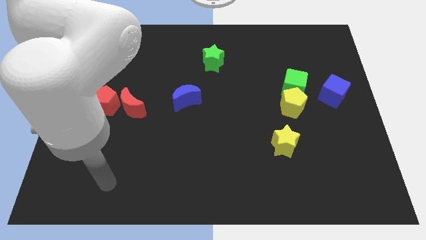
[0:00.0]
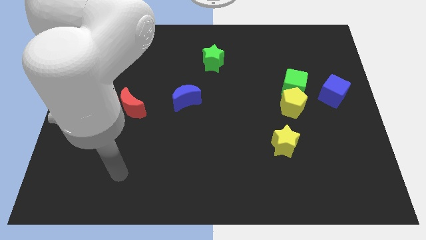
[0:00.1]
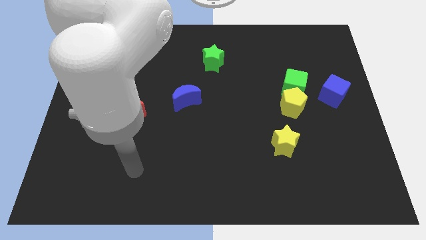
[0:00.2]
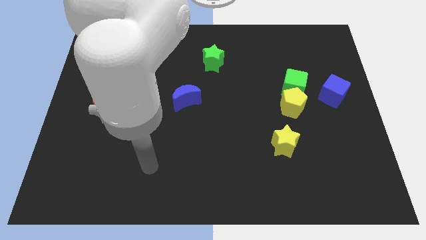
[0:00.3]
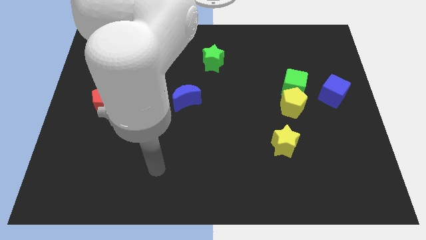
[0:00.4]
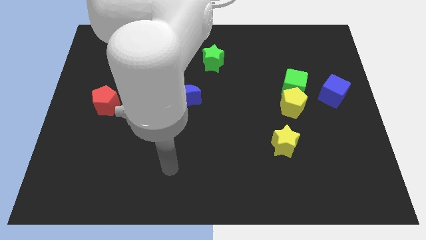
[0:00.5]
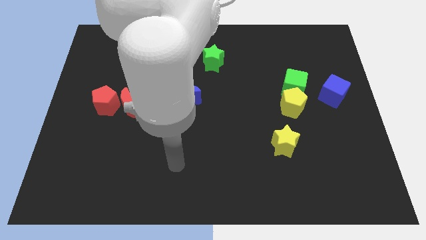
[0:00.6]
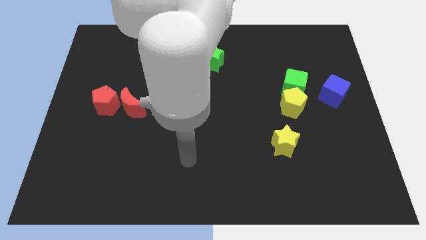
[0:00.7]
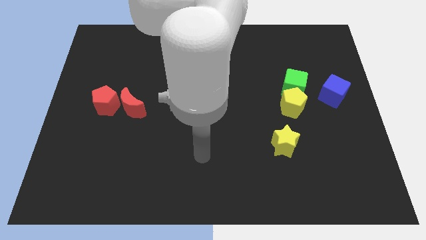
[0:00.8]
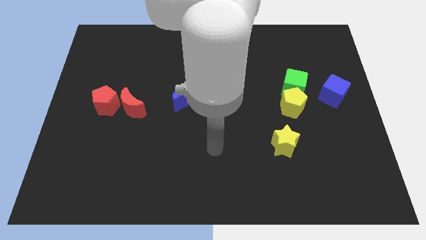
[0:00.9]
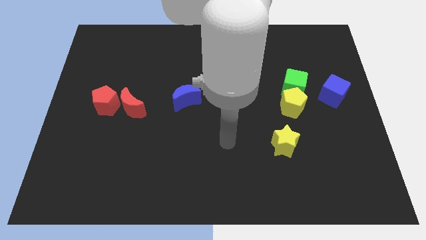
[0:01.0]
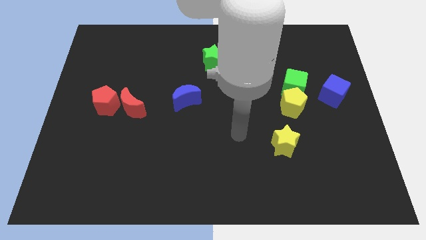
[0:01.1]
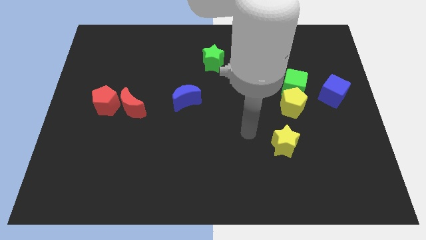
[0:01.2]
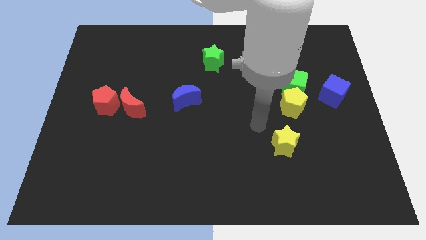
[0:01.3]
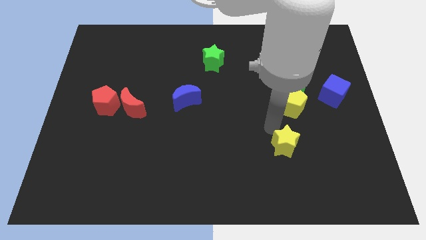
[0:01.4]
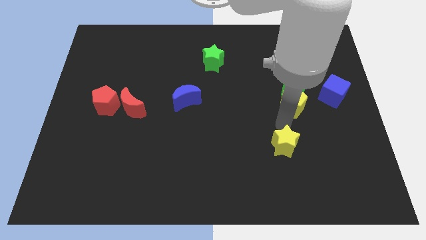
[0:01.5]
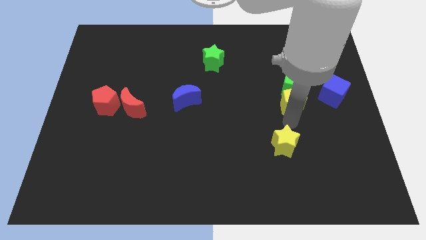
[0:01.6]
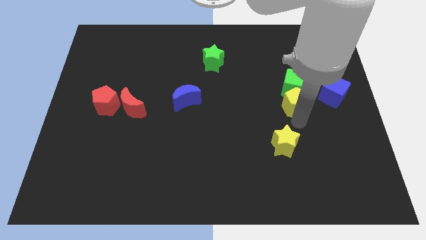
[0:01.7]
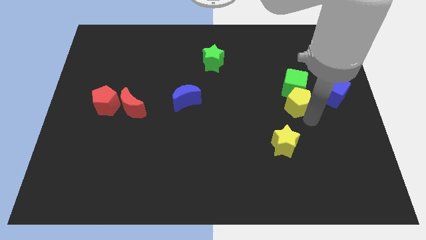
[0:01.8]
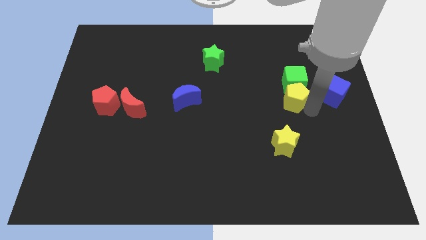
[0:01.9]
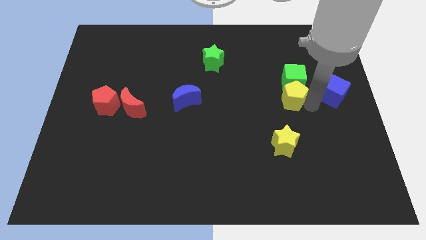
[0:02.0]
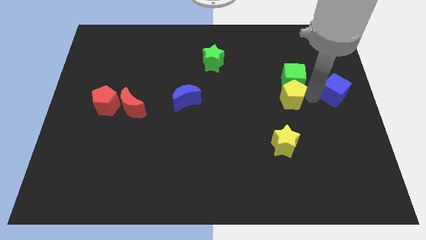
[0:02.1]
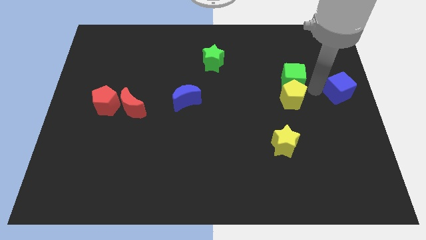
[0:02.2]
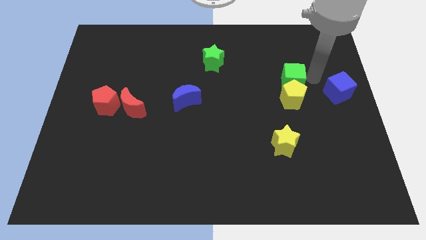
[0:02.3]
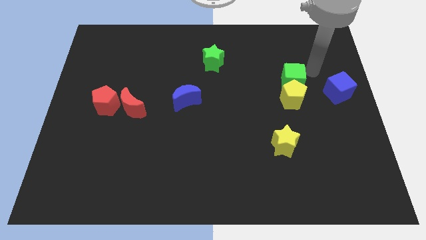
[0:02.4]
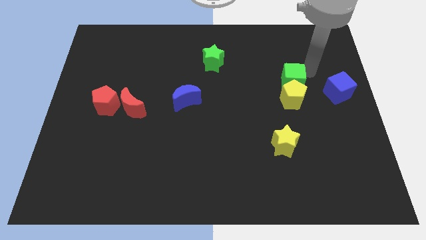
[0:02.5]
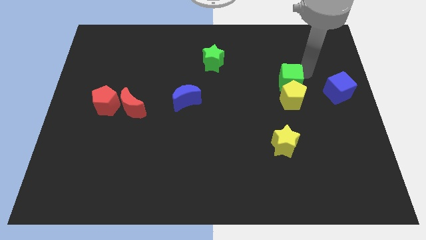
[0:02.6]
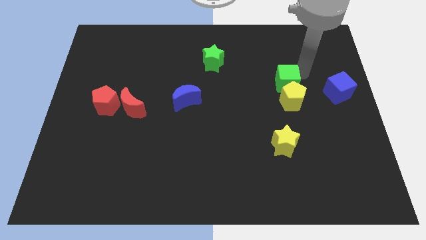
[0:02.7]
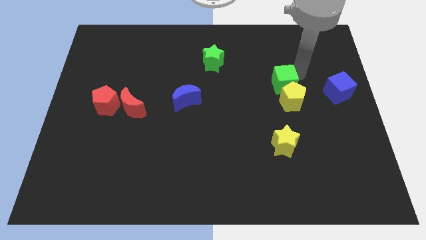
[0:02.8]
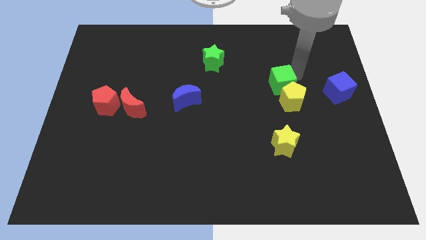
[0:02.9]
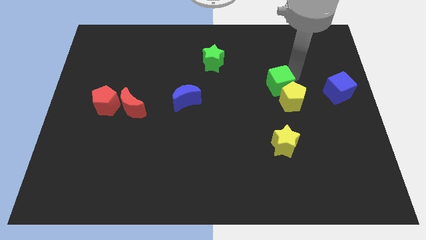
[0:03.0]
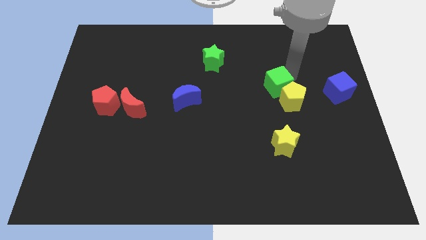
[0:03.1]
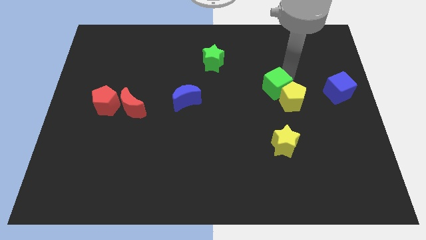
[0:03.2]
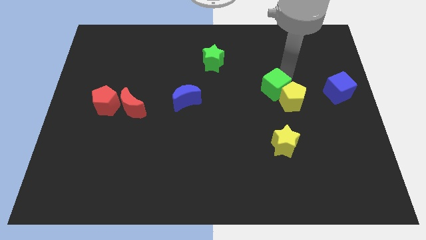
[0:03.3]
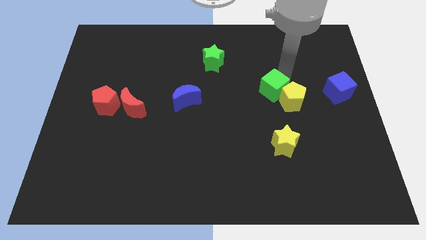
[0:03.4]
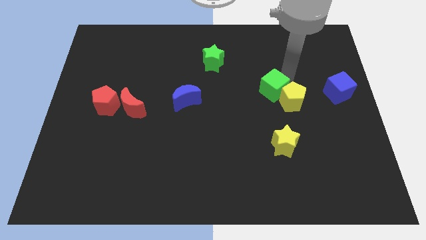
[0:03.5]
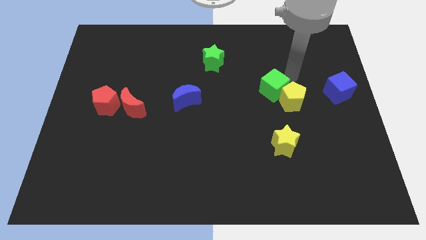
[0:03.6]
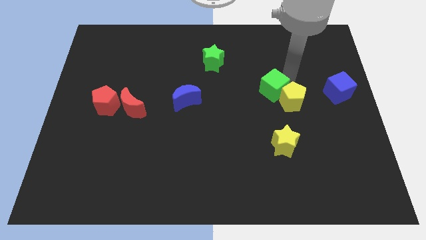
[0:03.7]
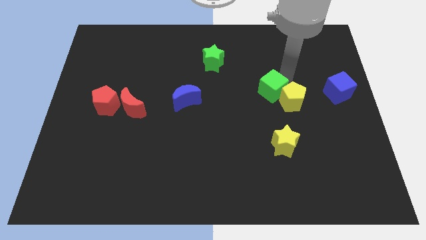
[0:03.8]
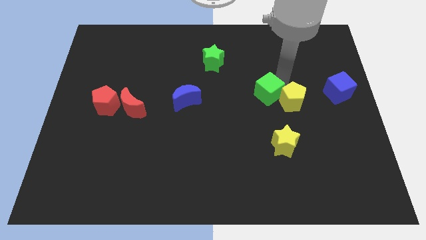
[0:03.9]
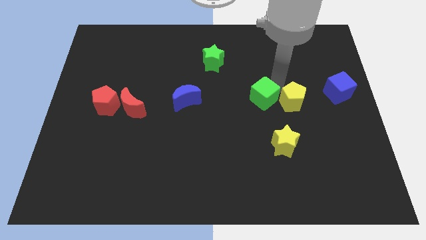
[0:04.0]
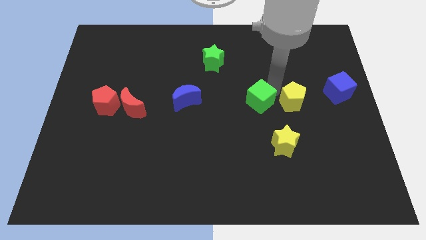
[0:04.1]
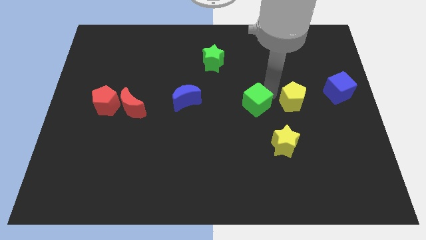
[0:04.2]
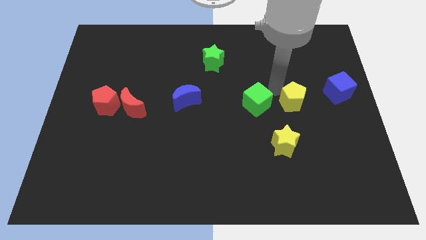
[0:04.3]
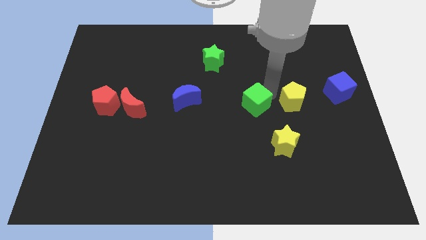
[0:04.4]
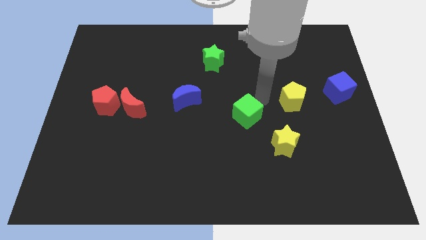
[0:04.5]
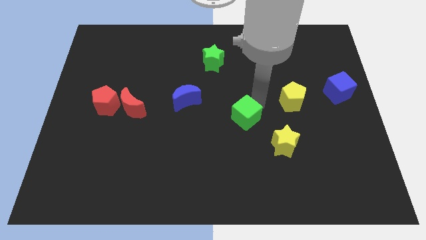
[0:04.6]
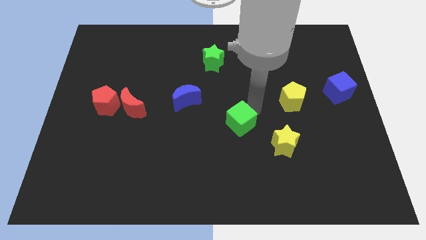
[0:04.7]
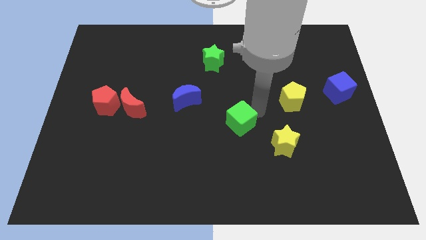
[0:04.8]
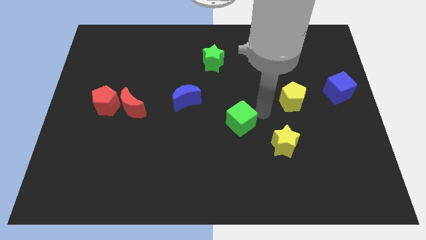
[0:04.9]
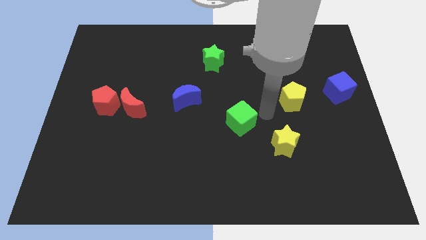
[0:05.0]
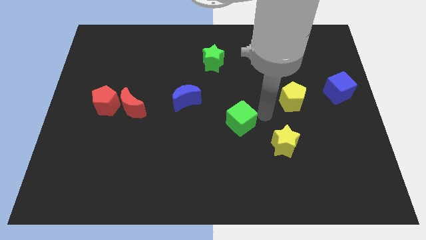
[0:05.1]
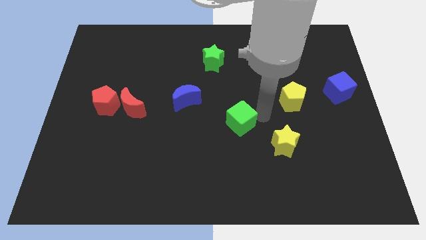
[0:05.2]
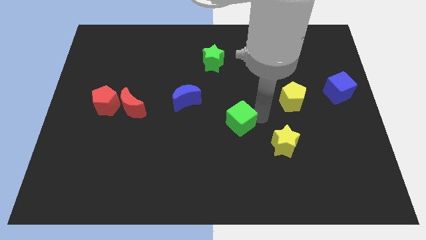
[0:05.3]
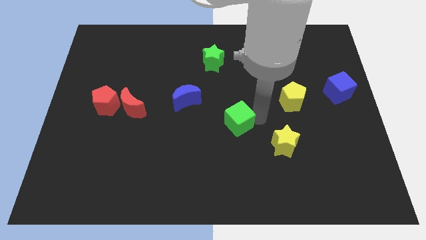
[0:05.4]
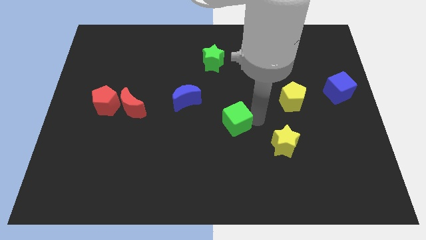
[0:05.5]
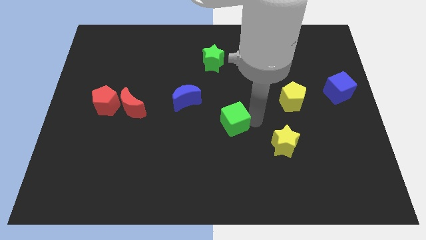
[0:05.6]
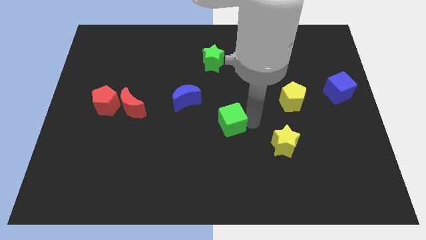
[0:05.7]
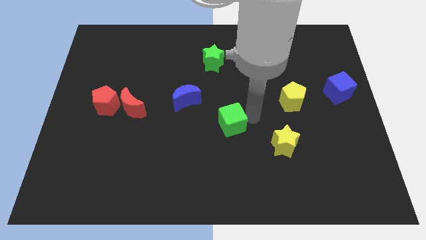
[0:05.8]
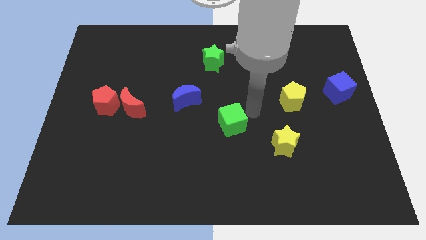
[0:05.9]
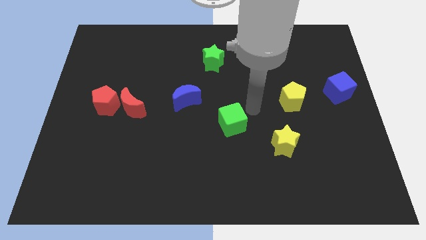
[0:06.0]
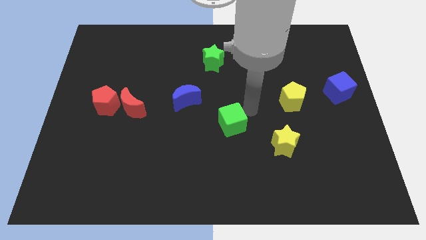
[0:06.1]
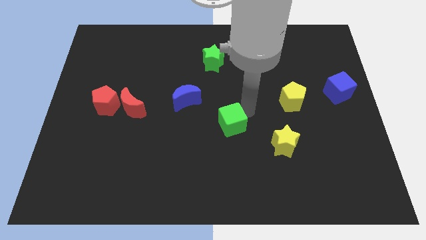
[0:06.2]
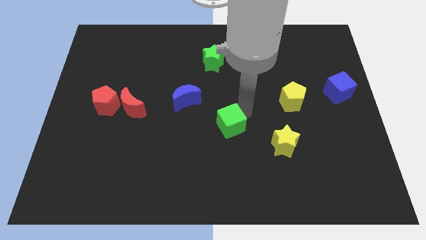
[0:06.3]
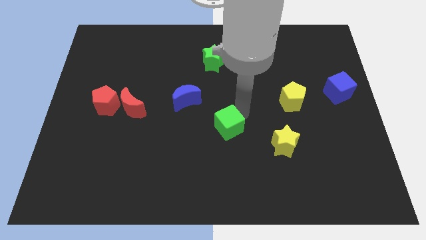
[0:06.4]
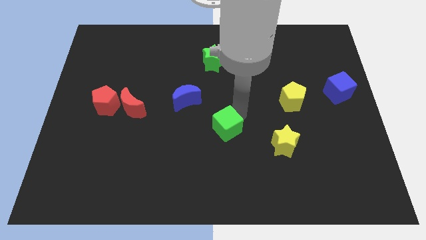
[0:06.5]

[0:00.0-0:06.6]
move the green cube downwards and left diagonally

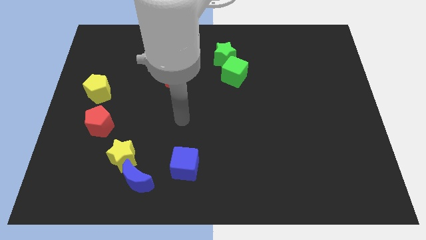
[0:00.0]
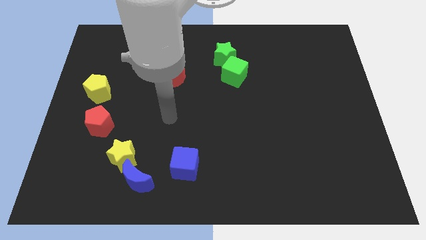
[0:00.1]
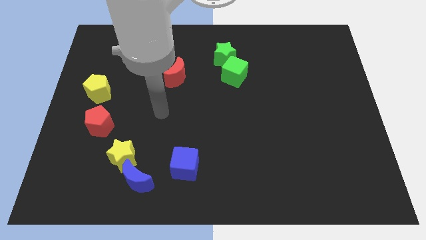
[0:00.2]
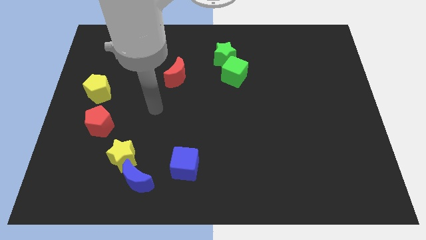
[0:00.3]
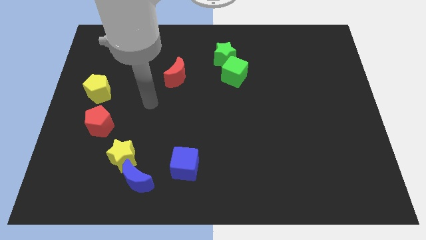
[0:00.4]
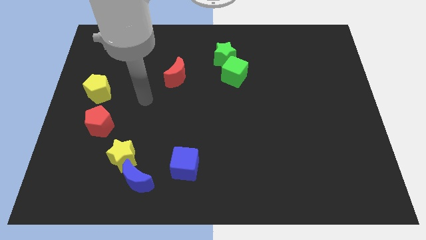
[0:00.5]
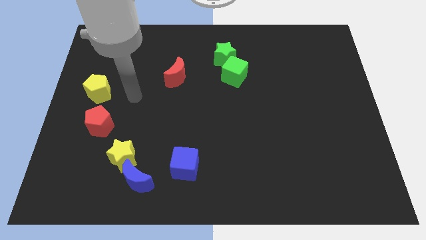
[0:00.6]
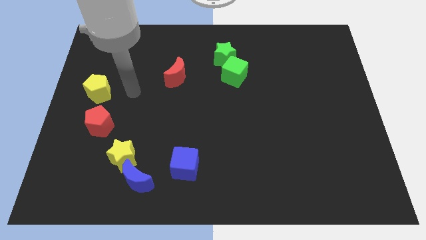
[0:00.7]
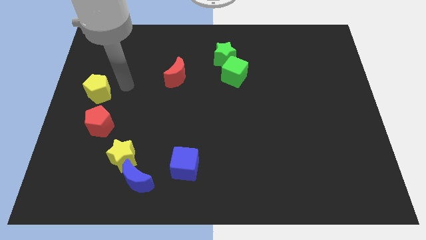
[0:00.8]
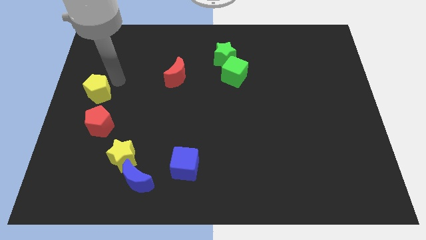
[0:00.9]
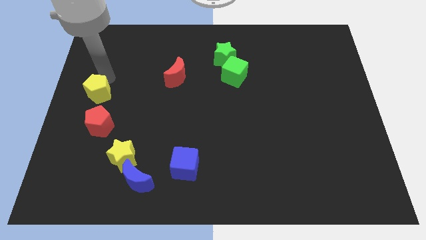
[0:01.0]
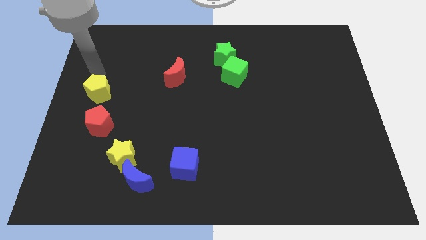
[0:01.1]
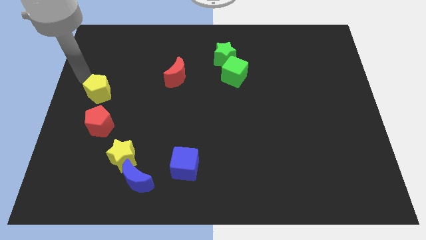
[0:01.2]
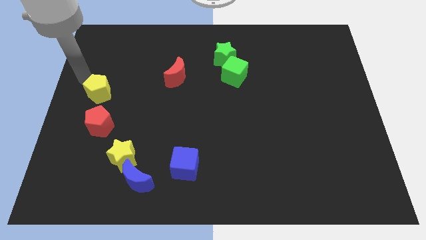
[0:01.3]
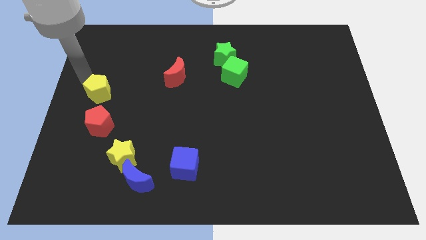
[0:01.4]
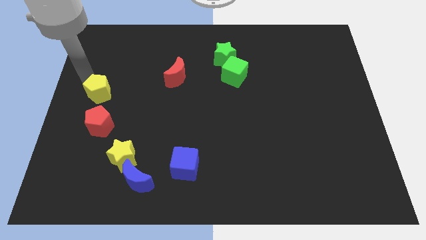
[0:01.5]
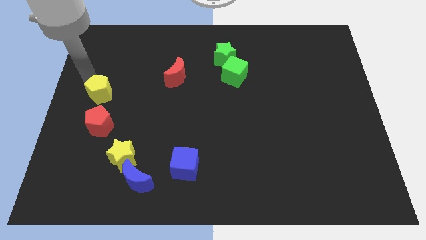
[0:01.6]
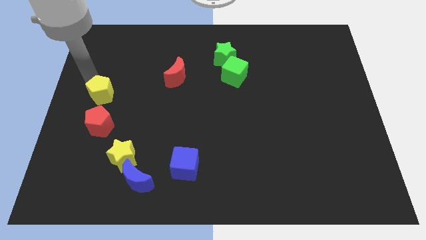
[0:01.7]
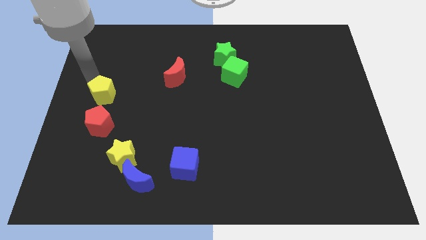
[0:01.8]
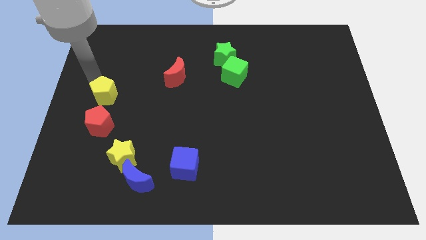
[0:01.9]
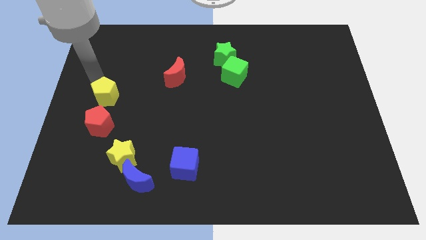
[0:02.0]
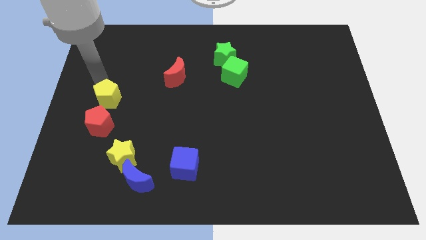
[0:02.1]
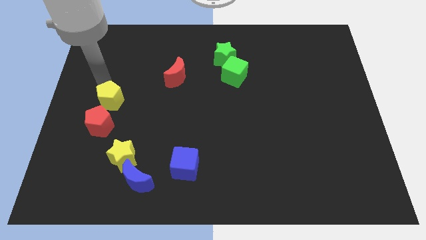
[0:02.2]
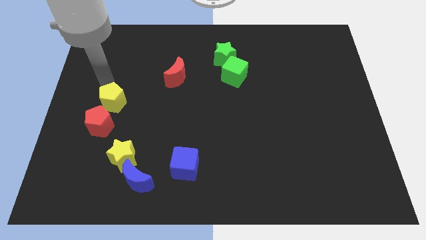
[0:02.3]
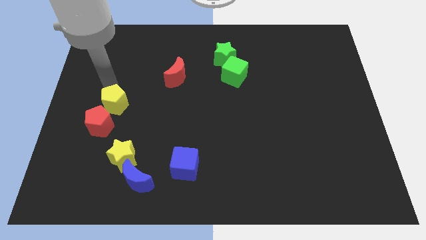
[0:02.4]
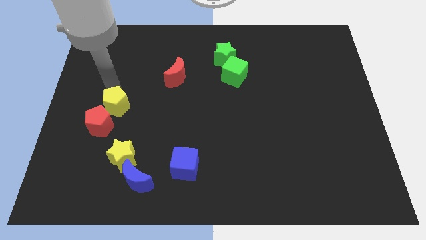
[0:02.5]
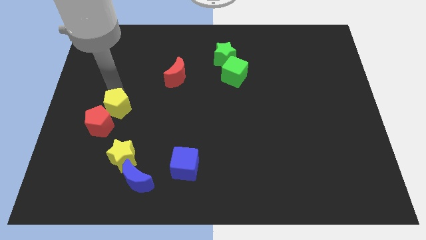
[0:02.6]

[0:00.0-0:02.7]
slightly slide the yellow pentagon downwards and to the right
